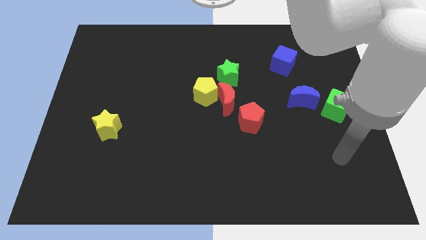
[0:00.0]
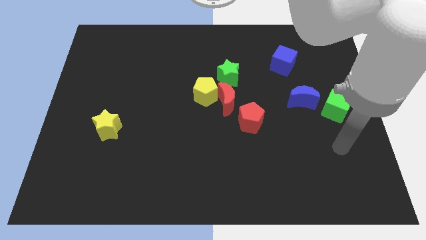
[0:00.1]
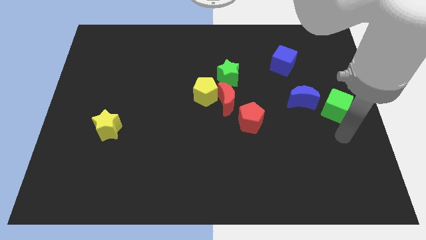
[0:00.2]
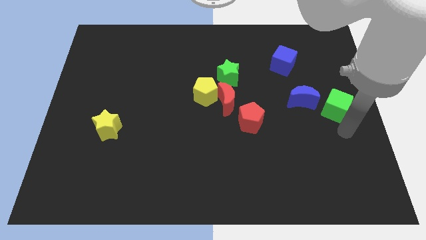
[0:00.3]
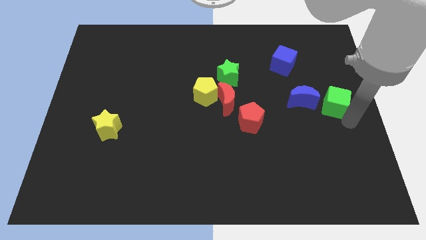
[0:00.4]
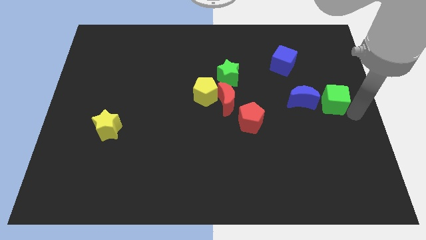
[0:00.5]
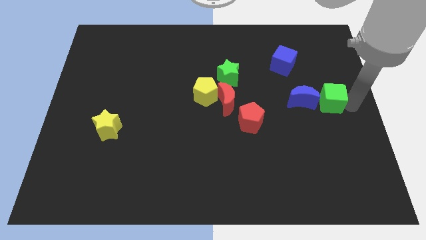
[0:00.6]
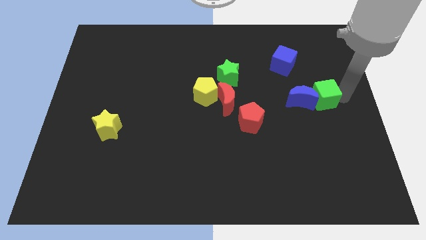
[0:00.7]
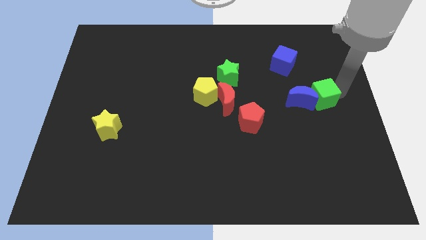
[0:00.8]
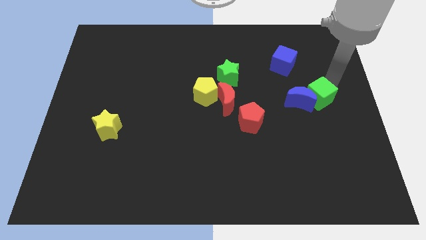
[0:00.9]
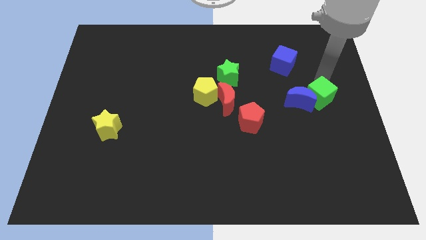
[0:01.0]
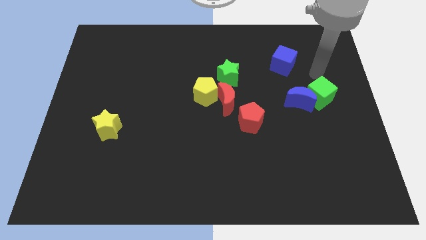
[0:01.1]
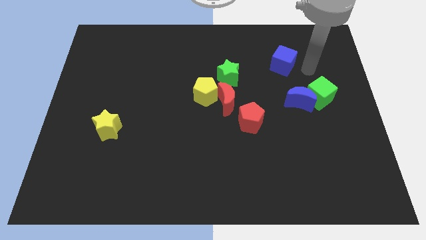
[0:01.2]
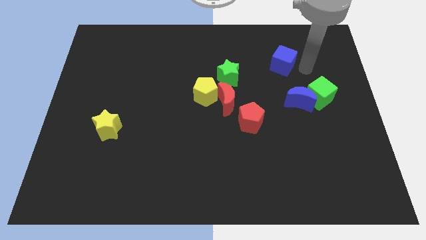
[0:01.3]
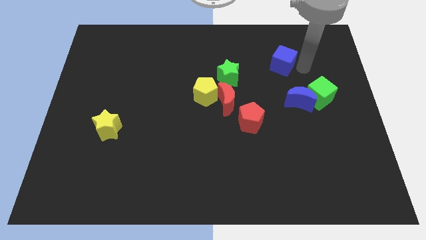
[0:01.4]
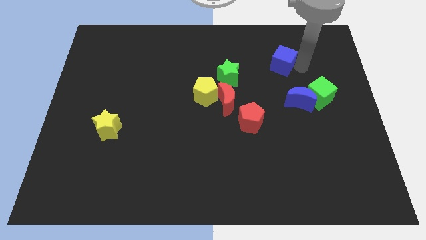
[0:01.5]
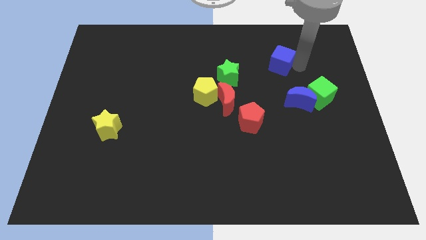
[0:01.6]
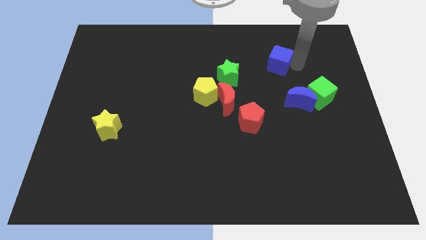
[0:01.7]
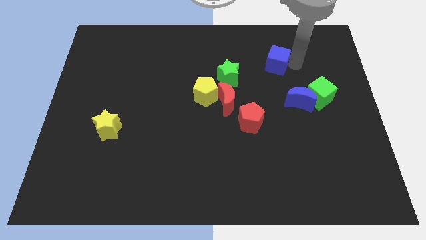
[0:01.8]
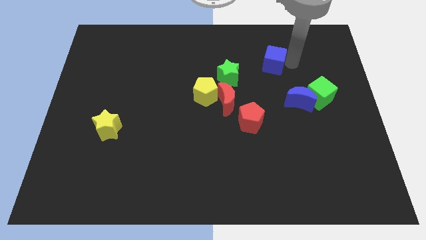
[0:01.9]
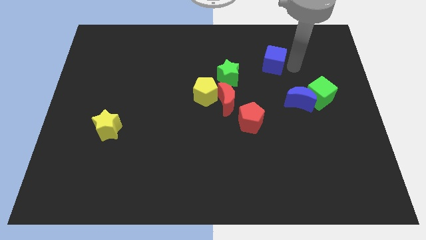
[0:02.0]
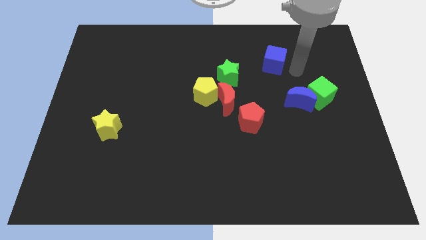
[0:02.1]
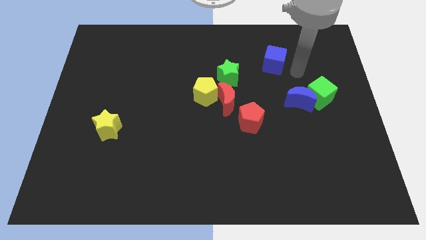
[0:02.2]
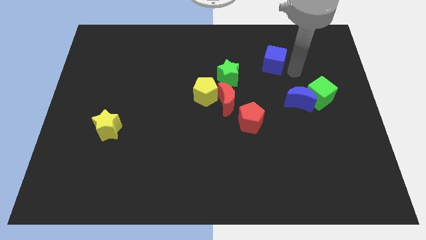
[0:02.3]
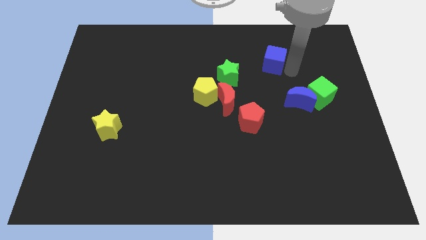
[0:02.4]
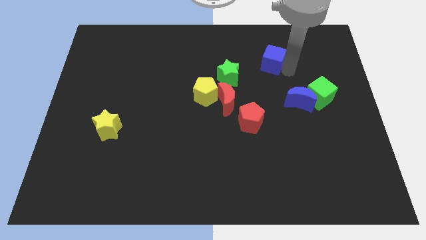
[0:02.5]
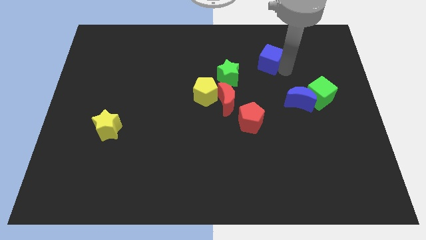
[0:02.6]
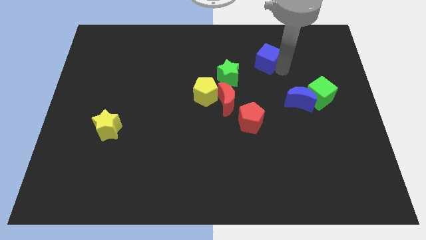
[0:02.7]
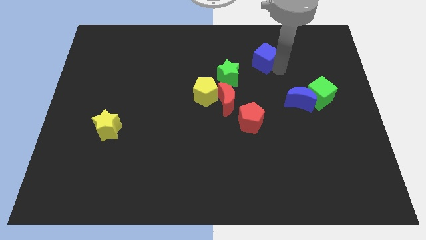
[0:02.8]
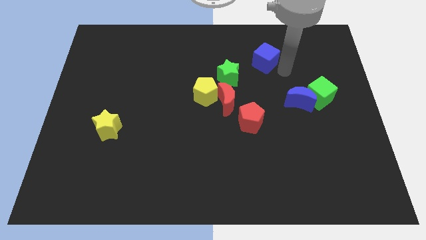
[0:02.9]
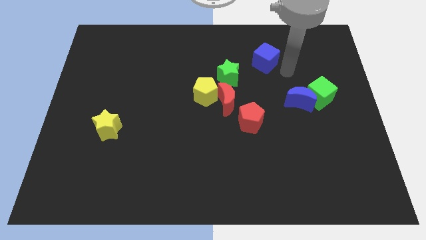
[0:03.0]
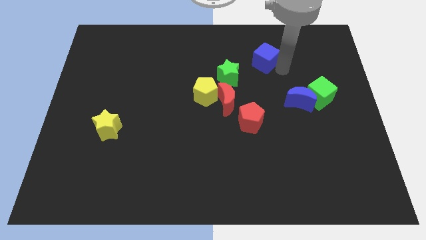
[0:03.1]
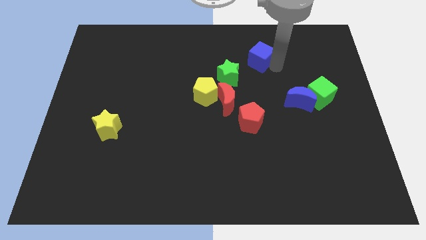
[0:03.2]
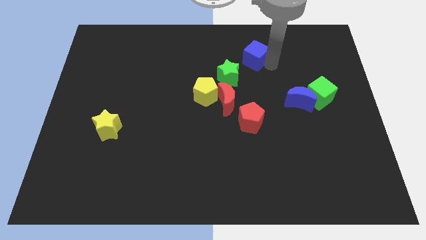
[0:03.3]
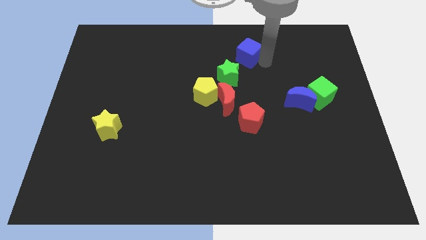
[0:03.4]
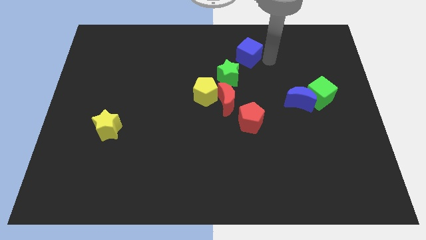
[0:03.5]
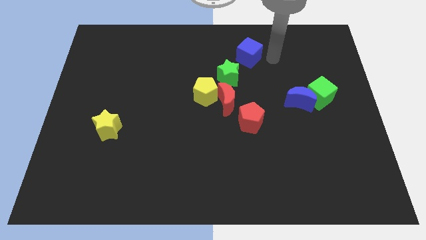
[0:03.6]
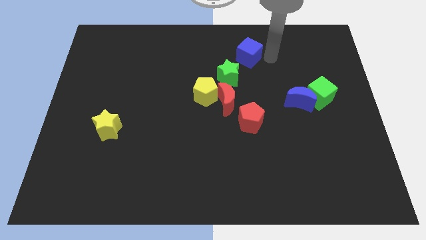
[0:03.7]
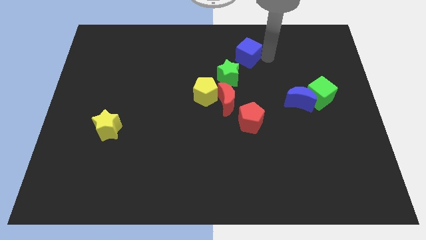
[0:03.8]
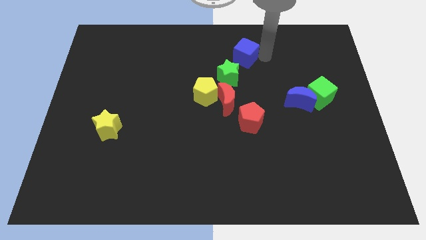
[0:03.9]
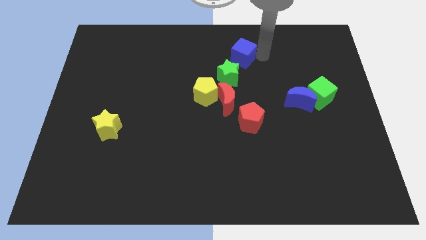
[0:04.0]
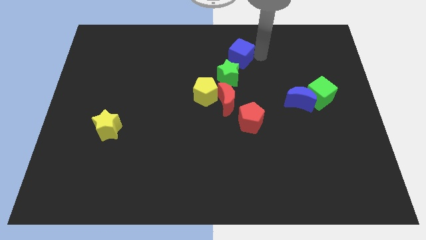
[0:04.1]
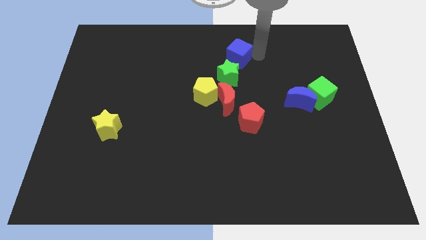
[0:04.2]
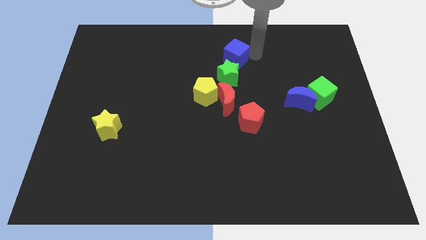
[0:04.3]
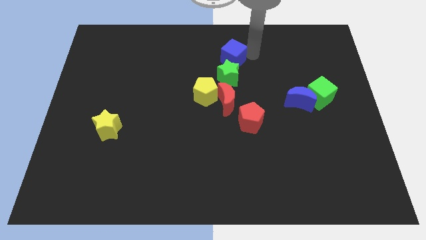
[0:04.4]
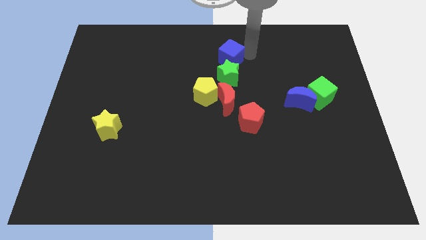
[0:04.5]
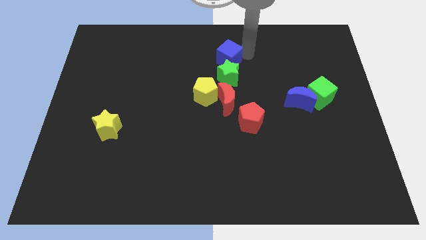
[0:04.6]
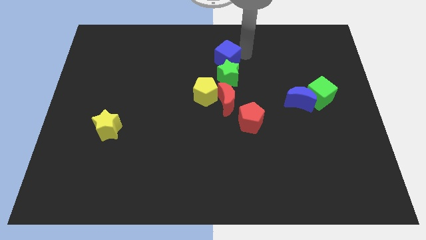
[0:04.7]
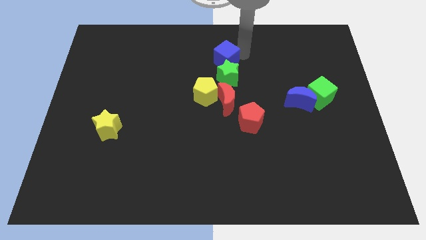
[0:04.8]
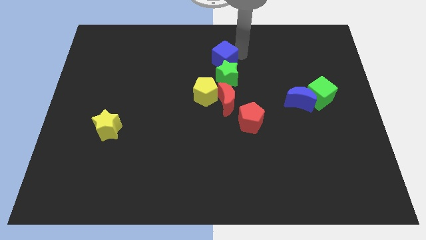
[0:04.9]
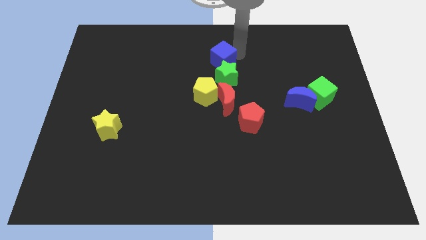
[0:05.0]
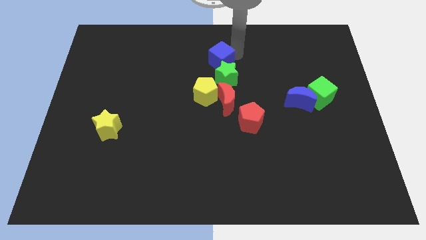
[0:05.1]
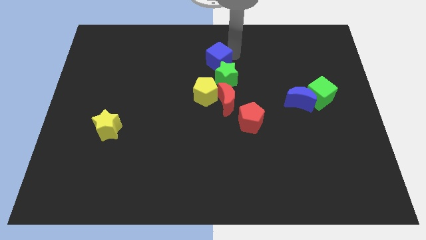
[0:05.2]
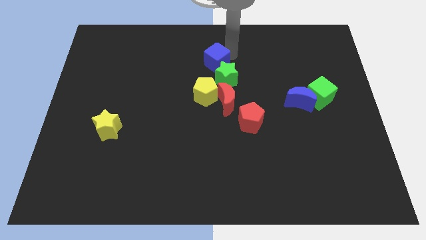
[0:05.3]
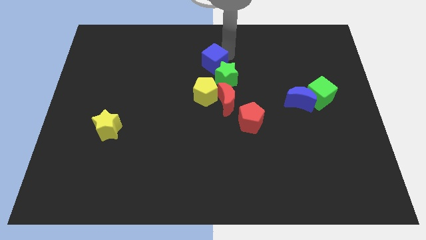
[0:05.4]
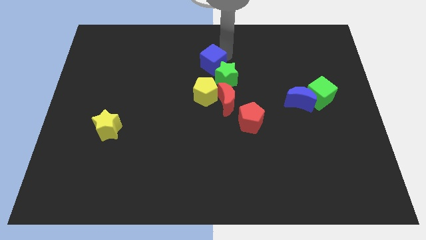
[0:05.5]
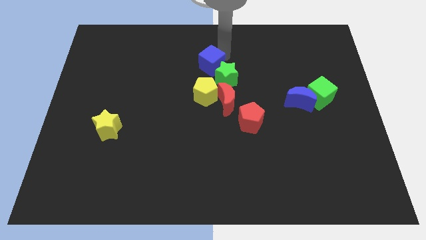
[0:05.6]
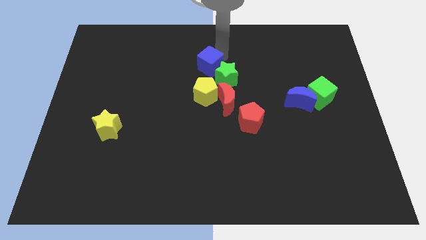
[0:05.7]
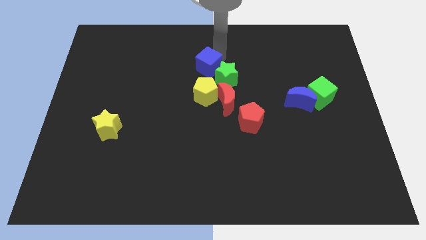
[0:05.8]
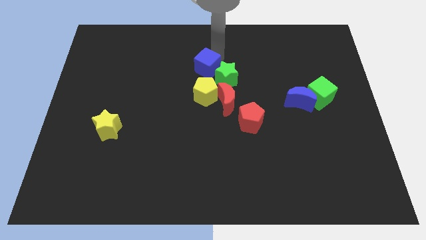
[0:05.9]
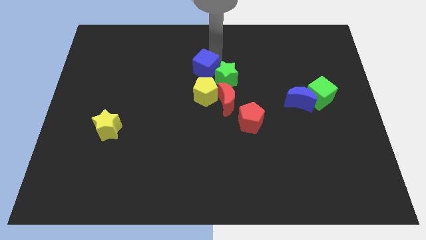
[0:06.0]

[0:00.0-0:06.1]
push the blue cube left

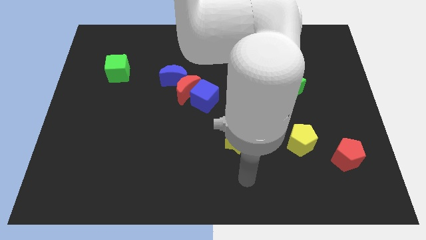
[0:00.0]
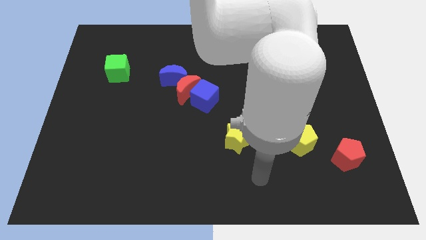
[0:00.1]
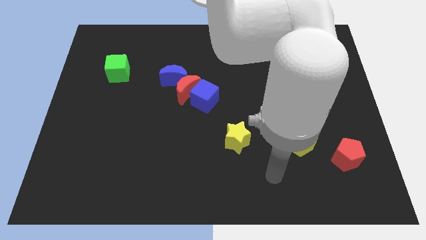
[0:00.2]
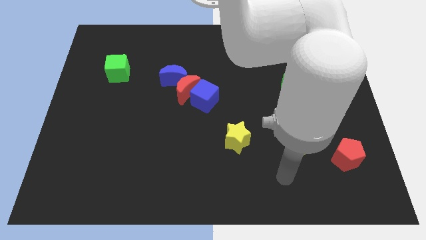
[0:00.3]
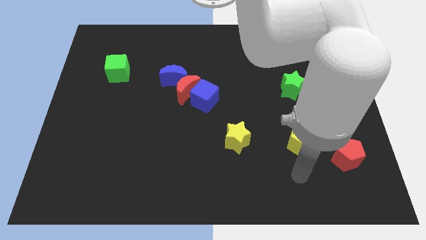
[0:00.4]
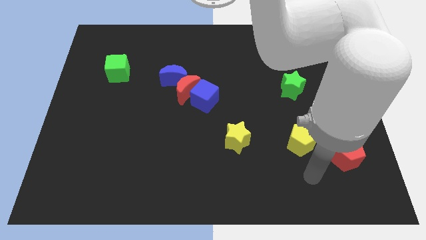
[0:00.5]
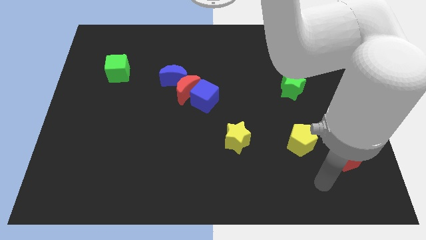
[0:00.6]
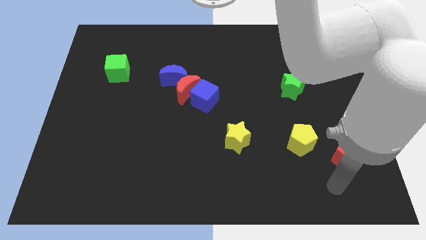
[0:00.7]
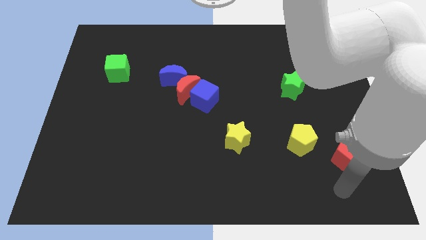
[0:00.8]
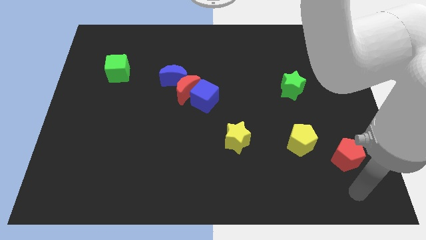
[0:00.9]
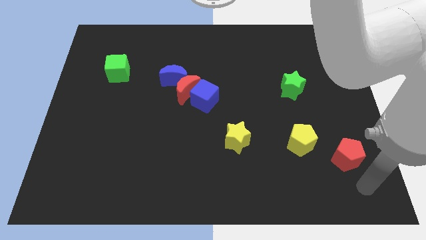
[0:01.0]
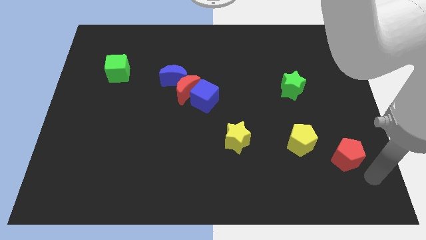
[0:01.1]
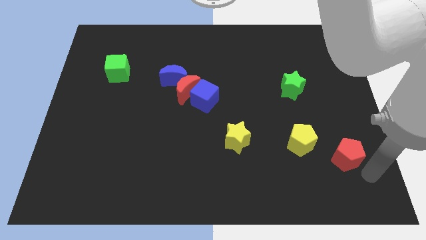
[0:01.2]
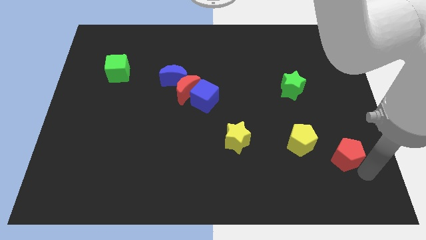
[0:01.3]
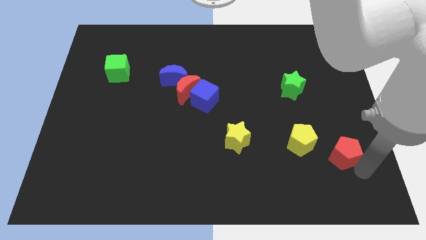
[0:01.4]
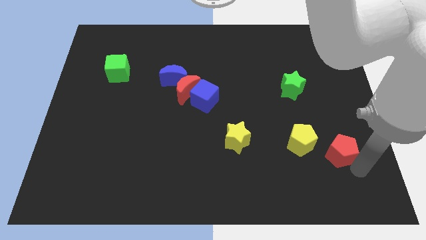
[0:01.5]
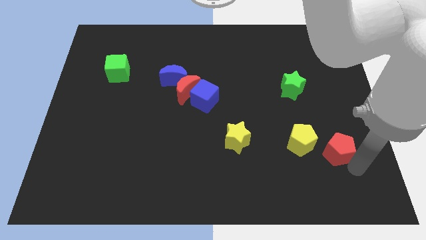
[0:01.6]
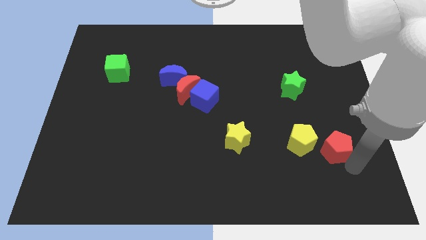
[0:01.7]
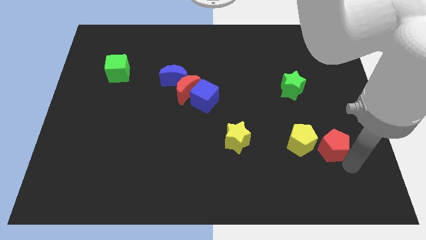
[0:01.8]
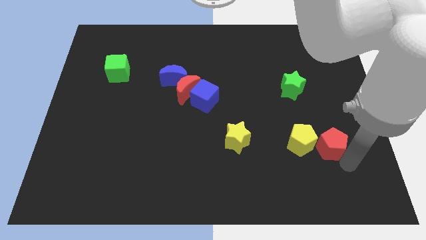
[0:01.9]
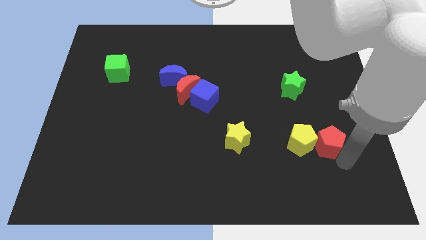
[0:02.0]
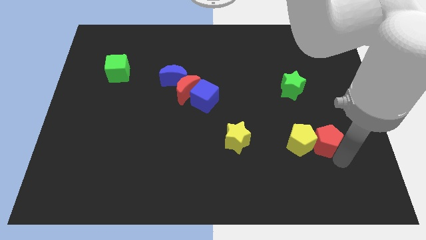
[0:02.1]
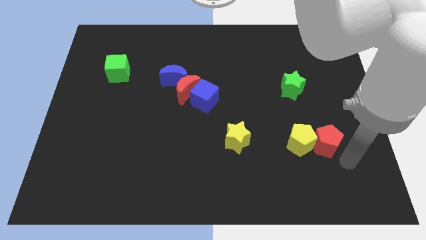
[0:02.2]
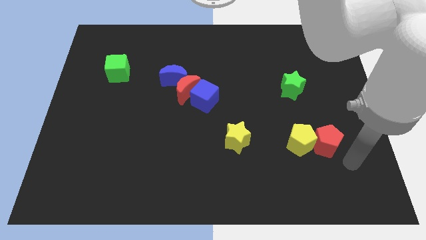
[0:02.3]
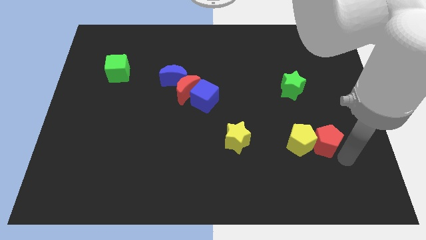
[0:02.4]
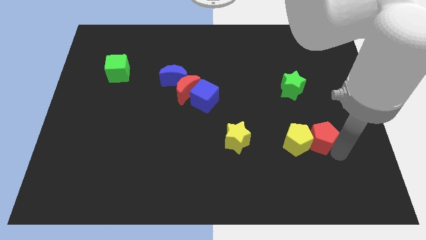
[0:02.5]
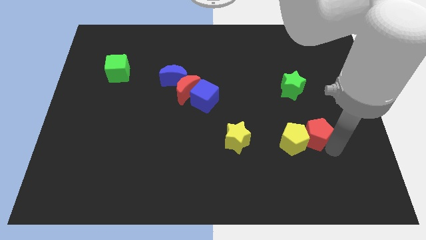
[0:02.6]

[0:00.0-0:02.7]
slide the red pentagon a little bit up and left diagonally
